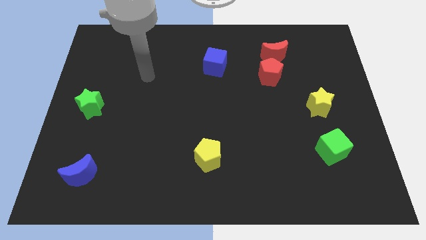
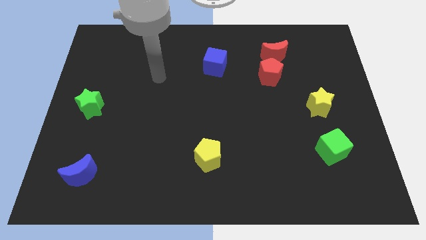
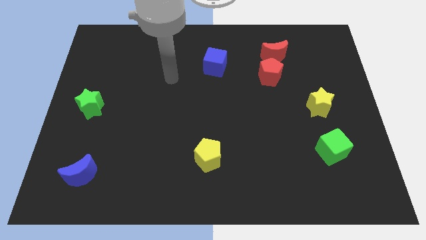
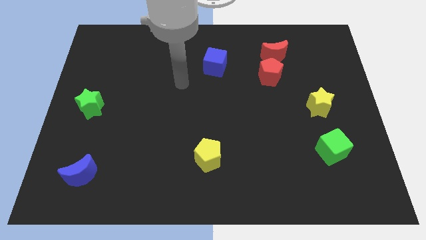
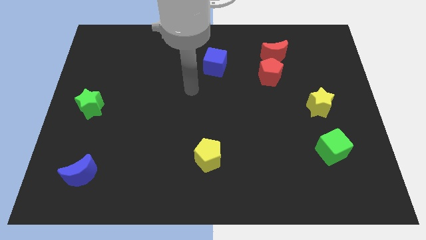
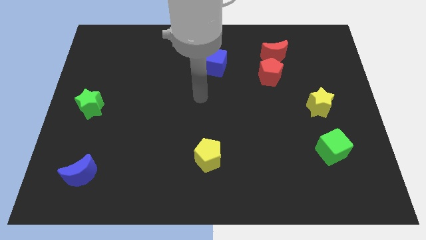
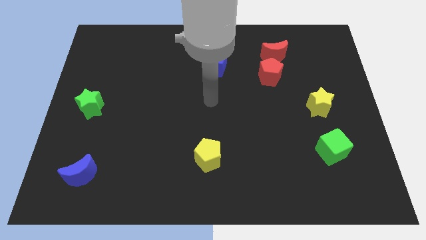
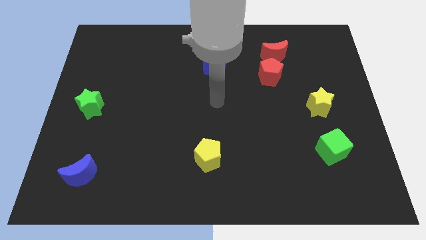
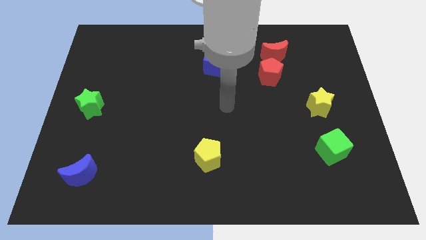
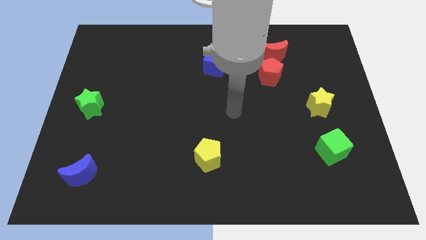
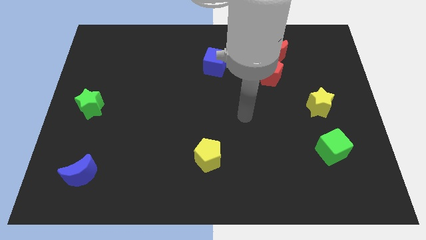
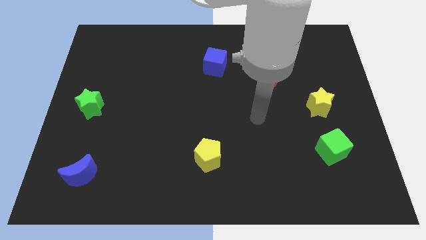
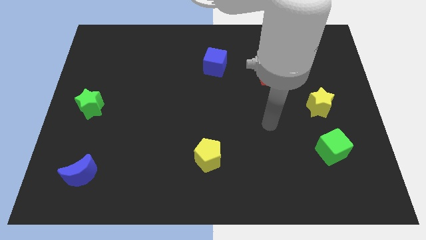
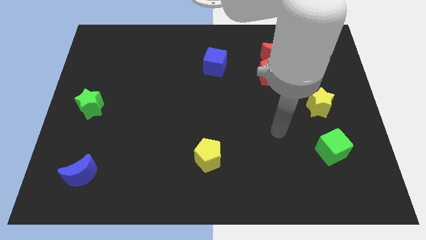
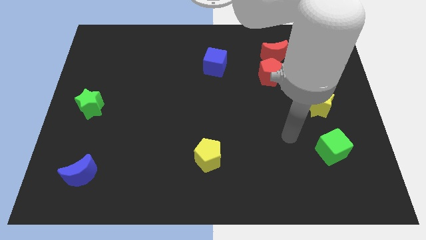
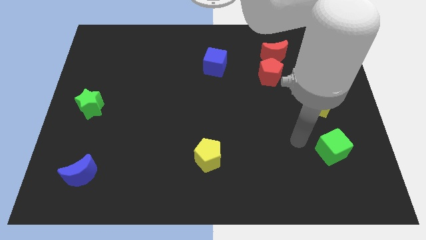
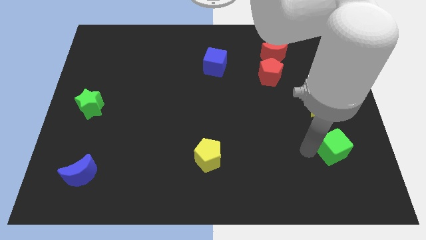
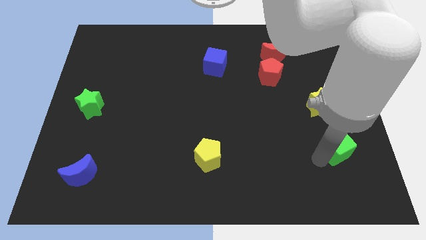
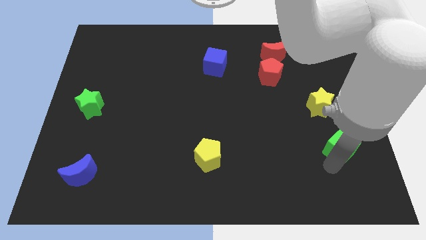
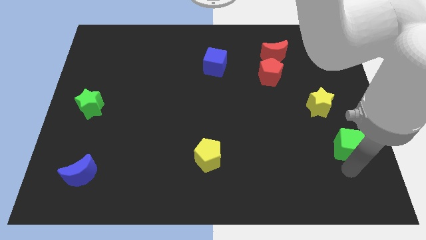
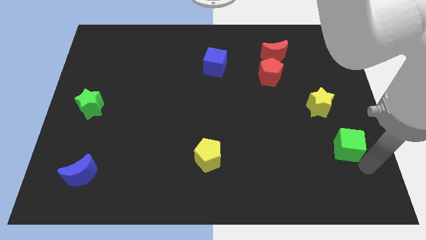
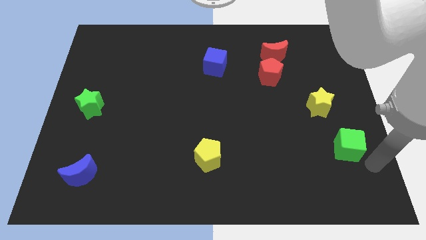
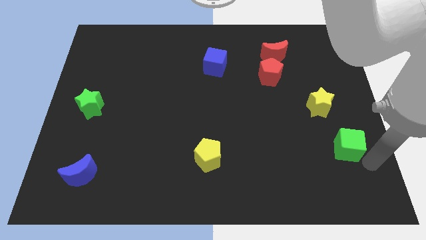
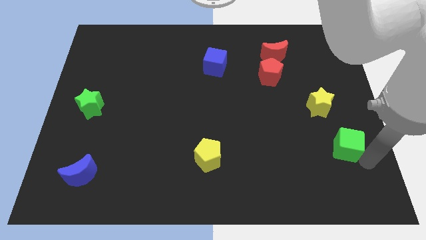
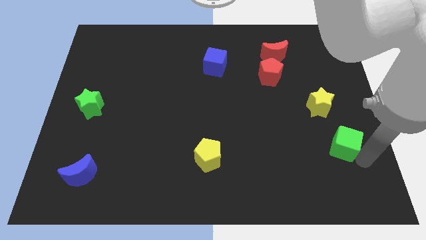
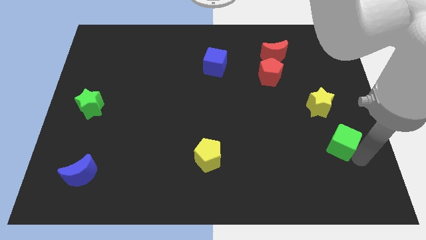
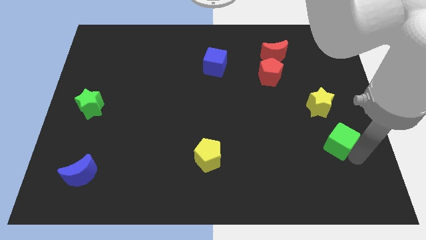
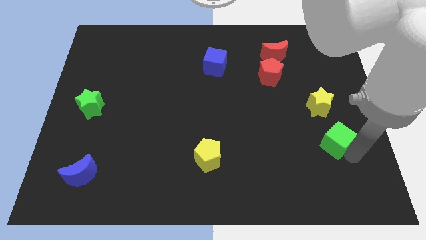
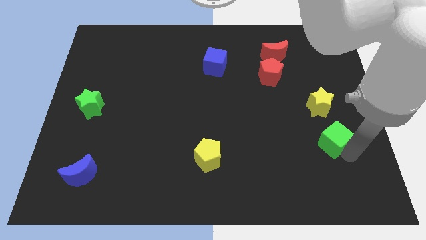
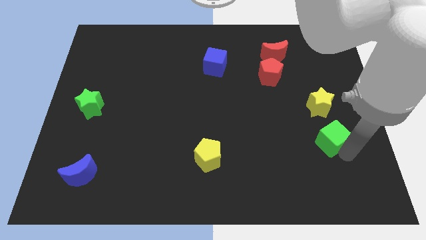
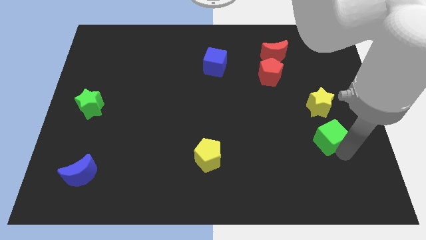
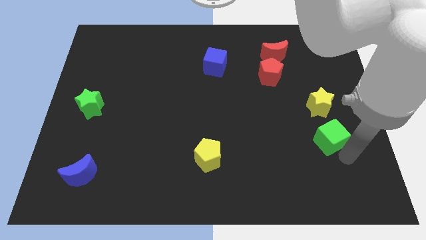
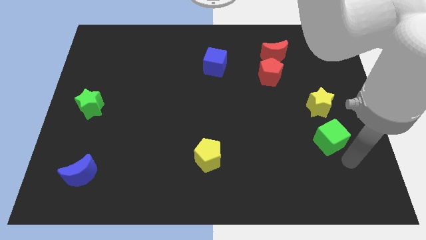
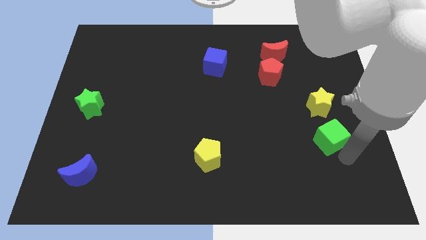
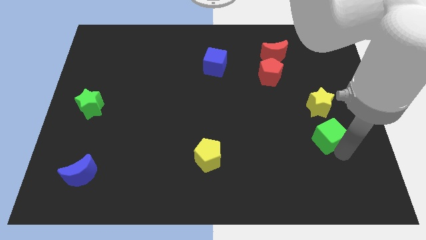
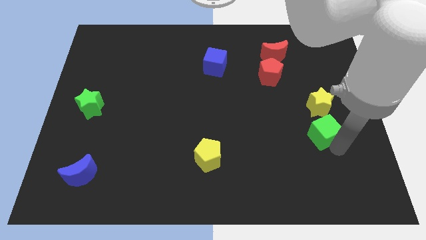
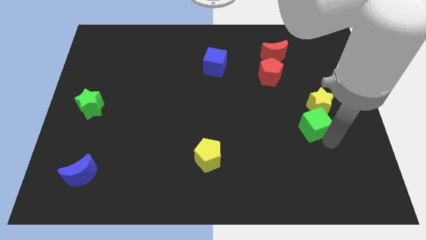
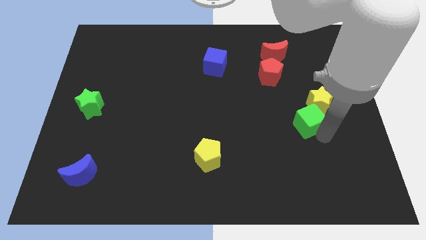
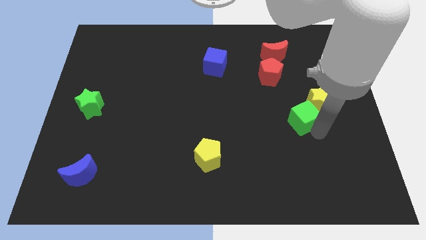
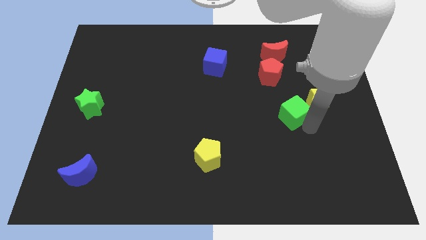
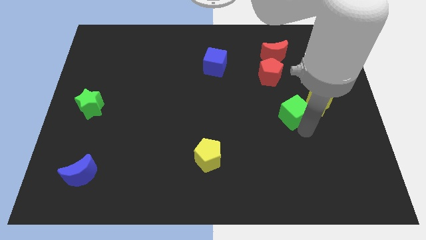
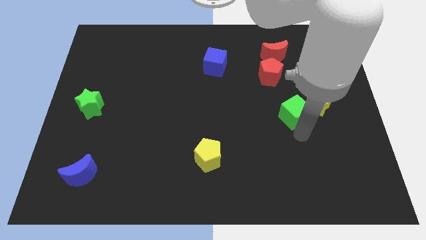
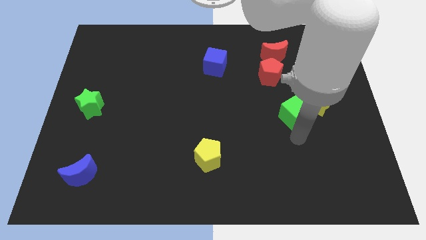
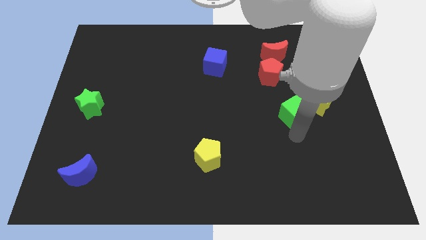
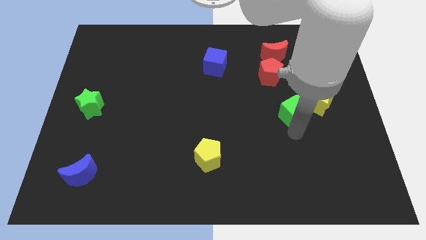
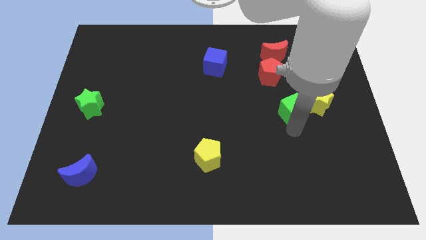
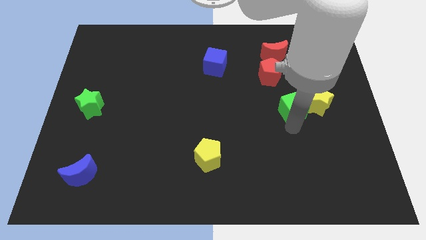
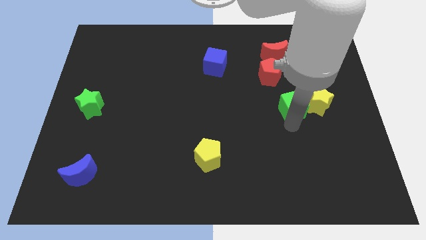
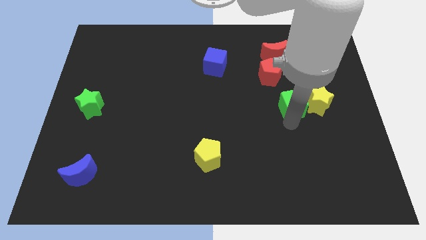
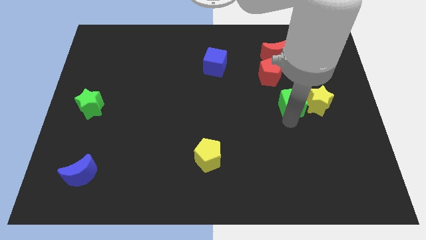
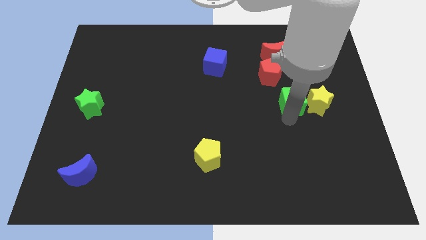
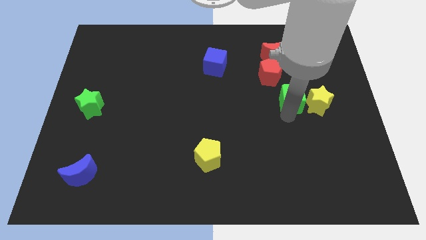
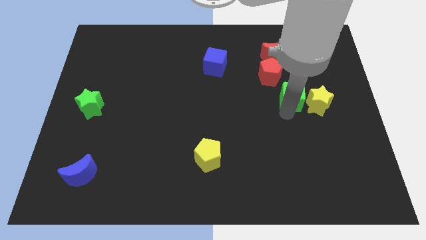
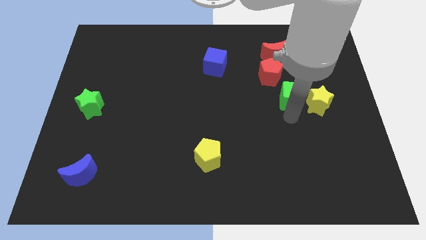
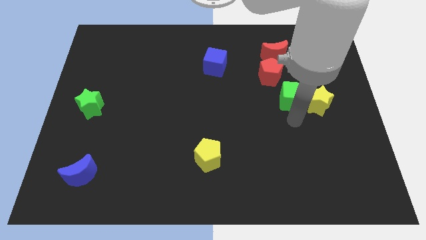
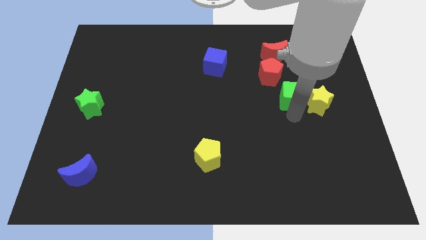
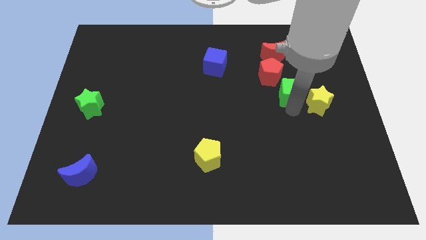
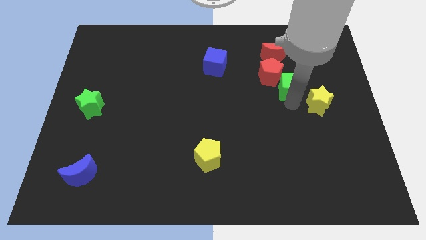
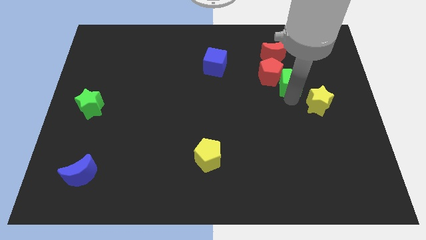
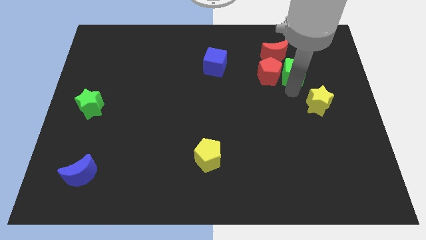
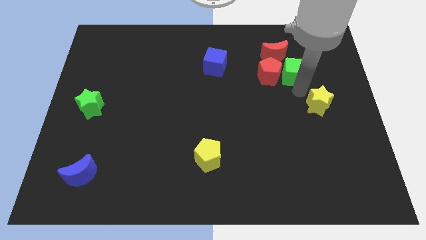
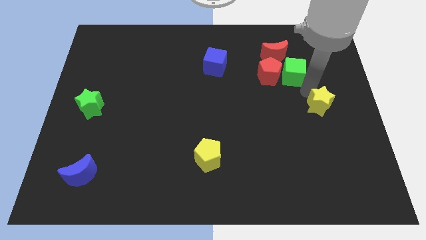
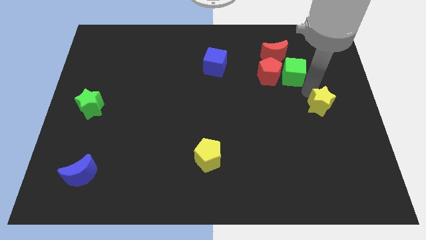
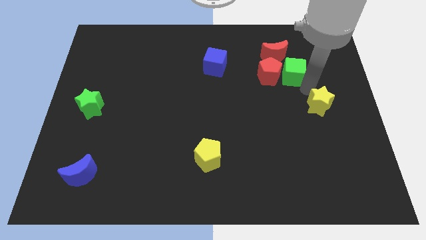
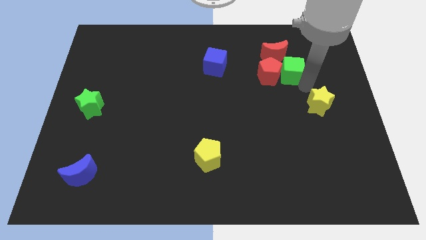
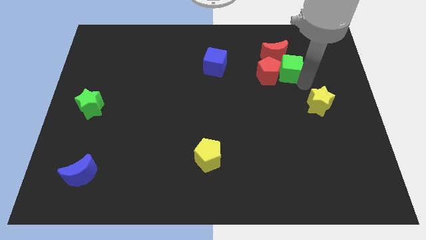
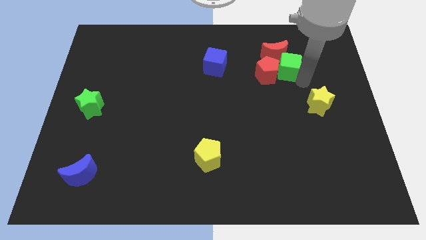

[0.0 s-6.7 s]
push the green cube next to the red moon

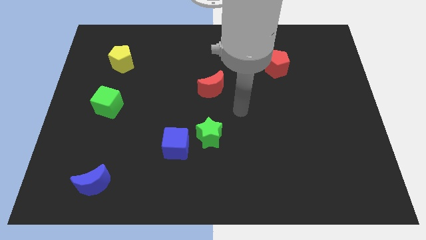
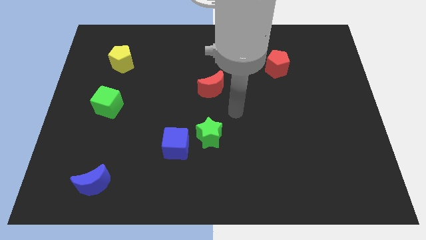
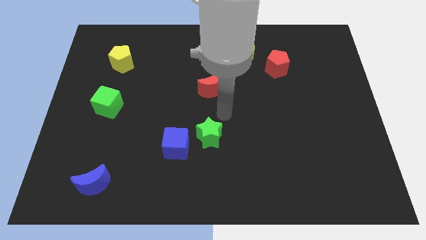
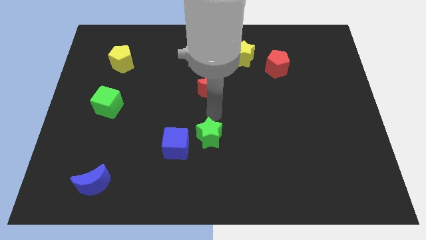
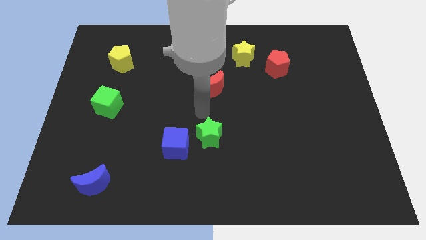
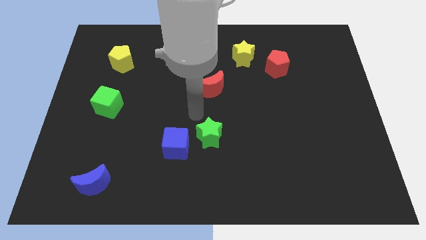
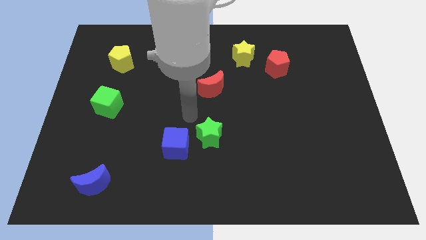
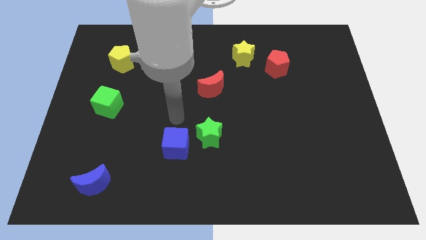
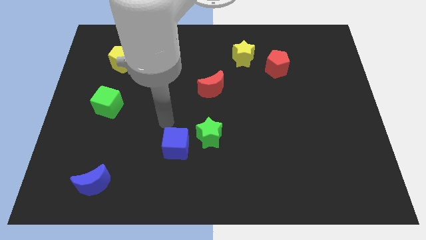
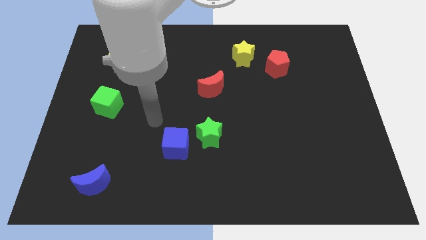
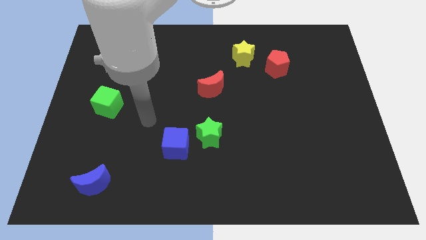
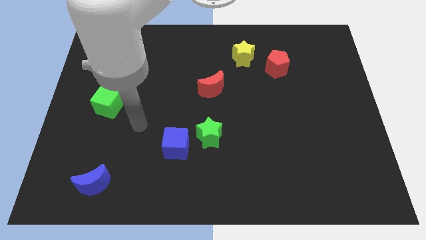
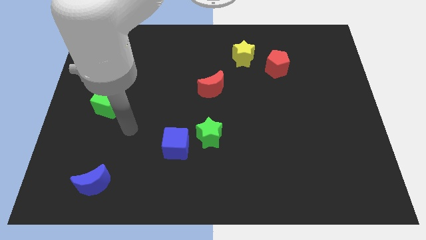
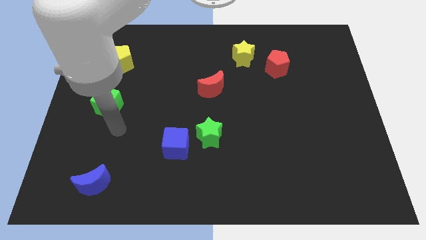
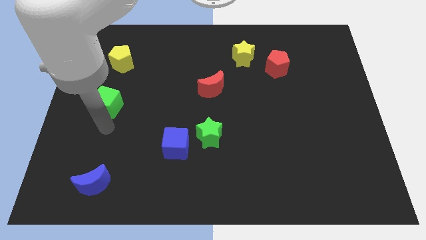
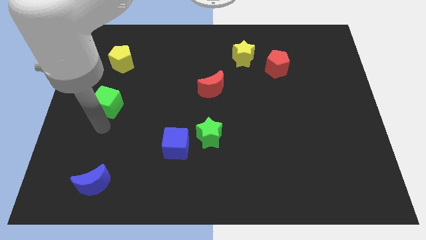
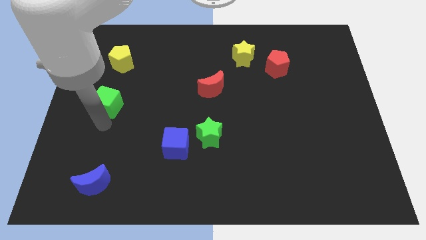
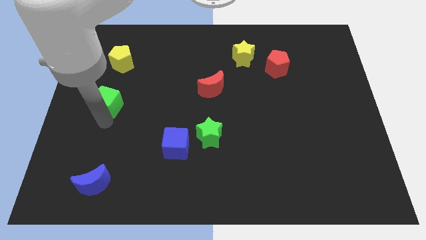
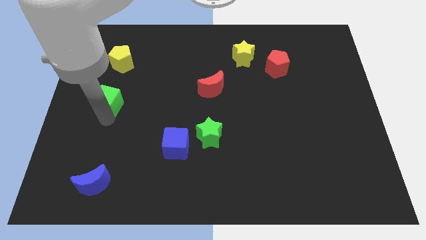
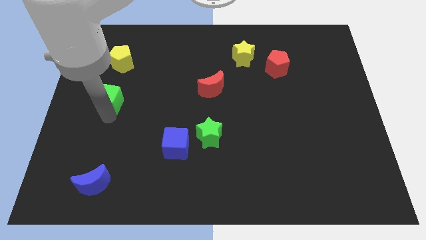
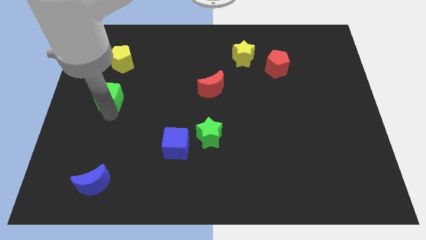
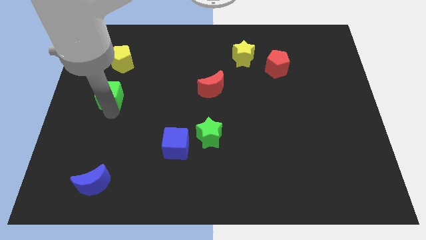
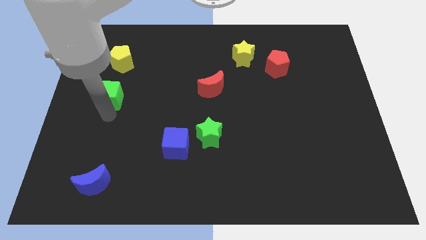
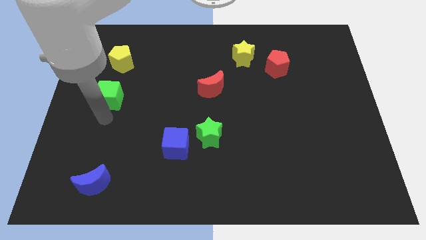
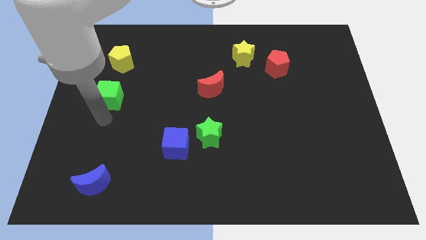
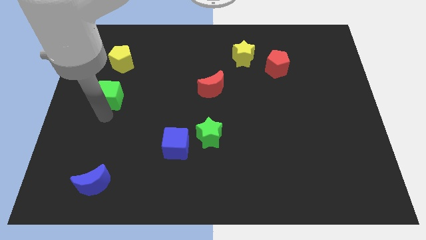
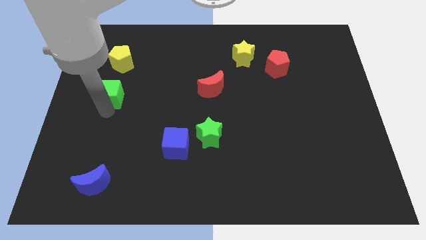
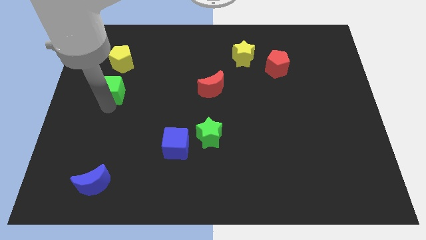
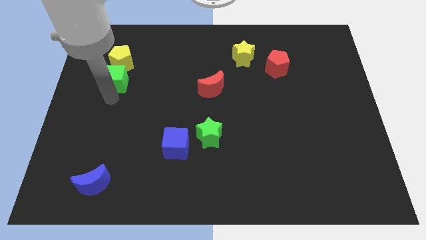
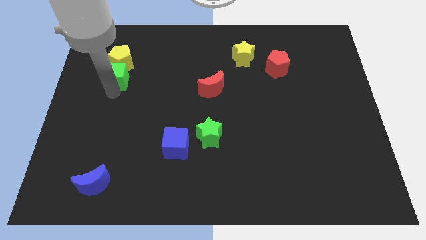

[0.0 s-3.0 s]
move the green cube close to the yellow pentagon
